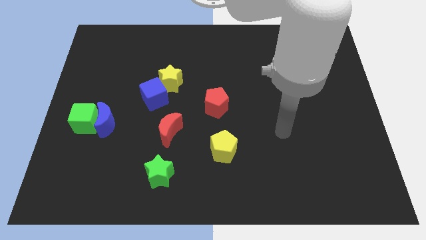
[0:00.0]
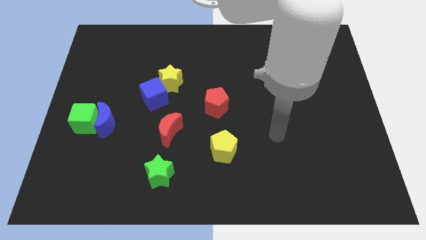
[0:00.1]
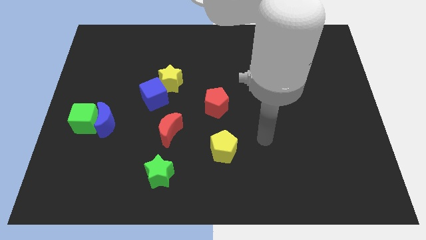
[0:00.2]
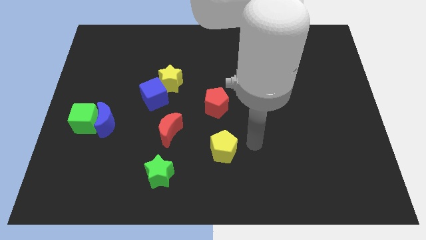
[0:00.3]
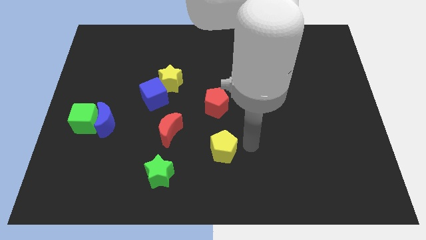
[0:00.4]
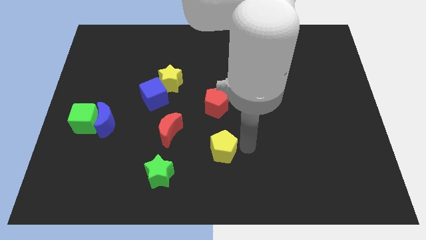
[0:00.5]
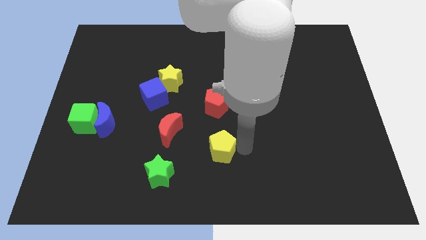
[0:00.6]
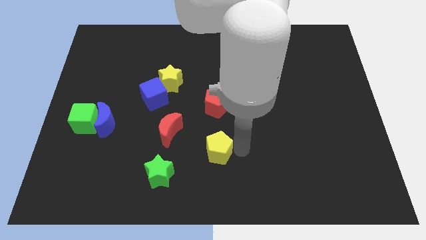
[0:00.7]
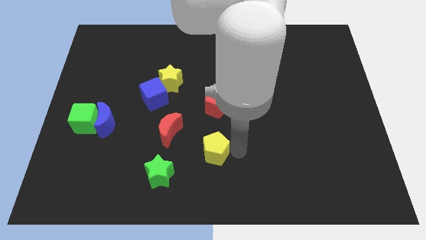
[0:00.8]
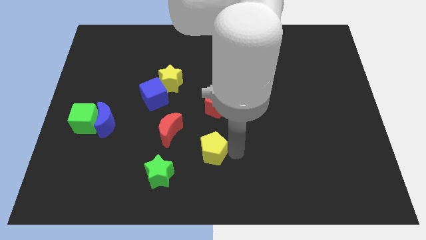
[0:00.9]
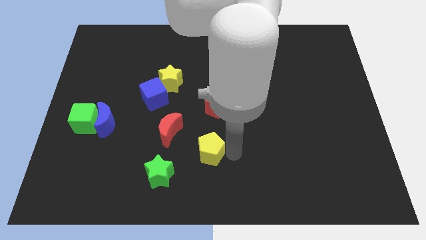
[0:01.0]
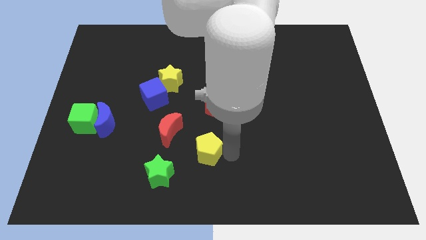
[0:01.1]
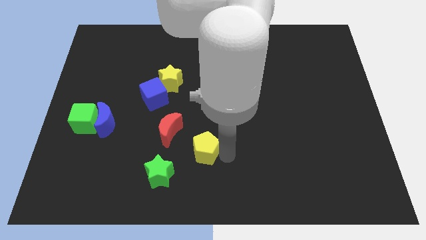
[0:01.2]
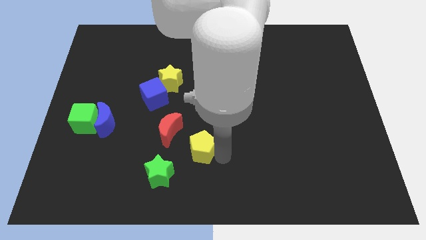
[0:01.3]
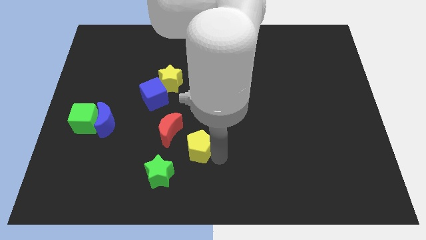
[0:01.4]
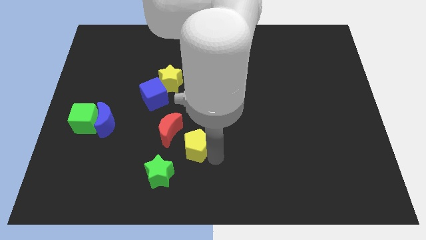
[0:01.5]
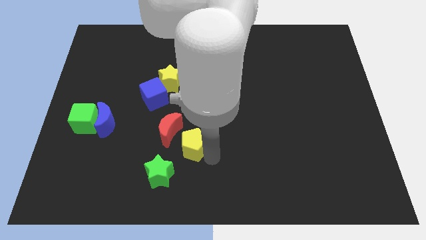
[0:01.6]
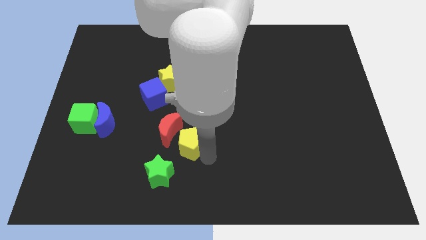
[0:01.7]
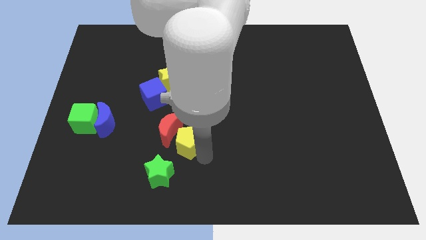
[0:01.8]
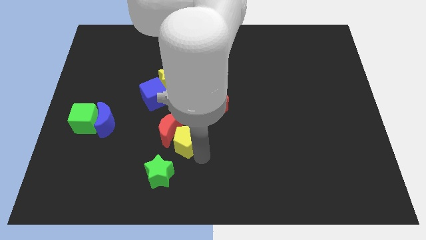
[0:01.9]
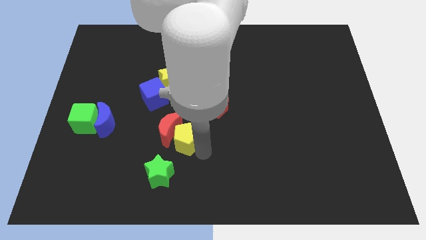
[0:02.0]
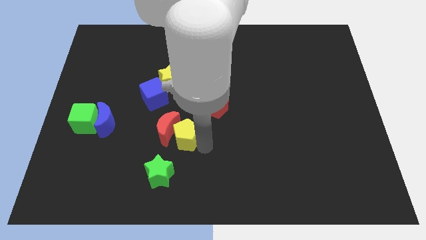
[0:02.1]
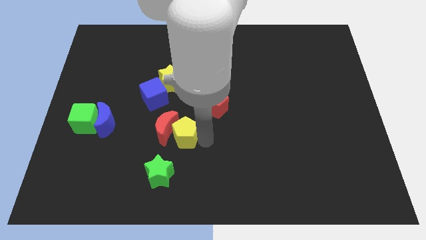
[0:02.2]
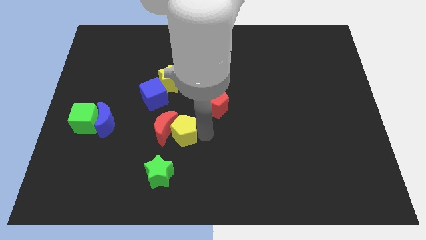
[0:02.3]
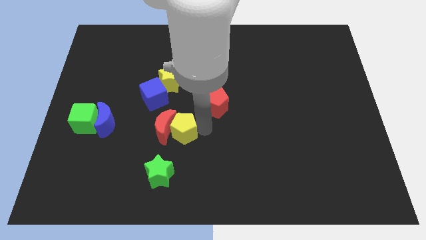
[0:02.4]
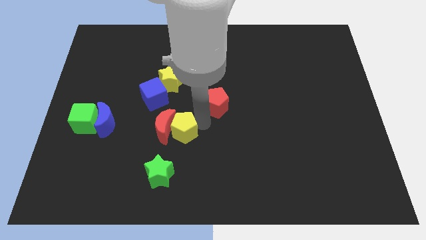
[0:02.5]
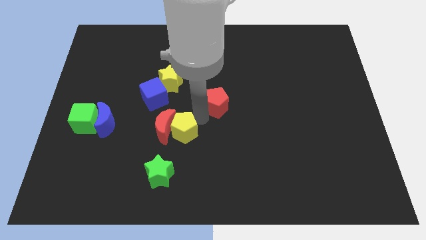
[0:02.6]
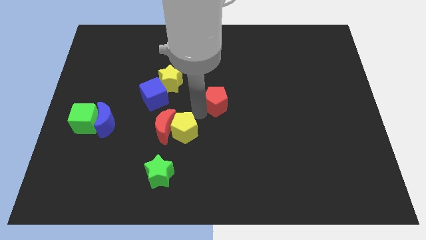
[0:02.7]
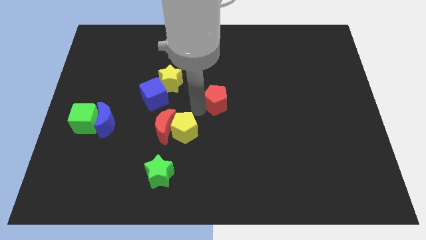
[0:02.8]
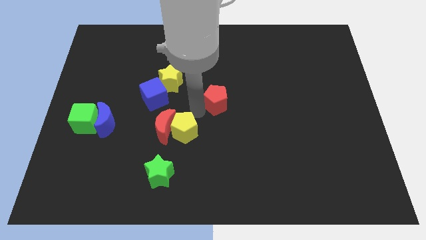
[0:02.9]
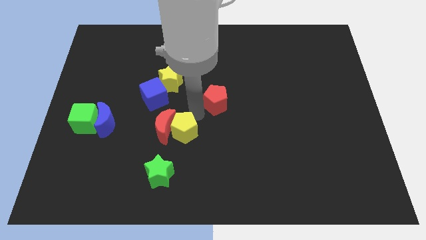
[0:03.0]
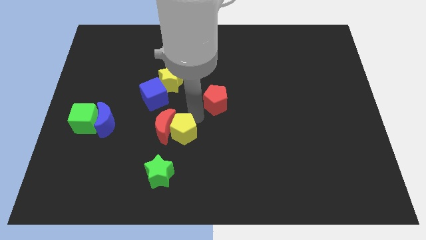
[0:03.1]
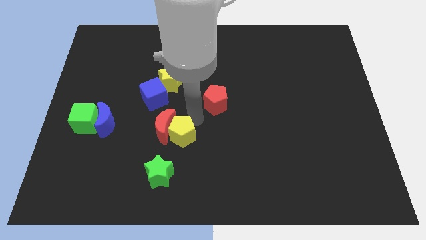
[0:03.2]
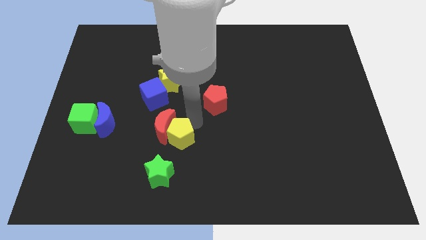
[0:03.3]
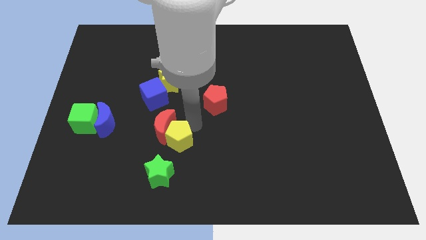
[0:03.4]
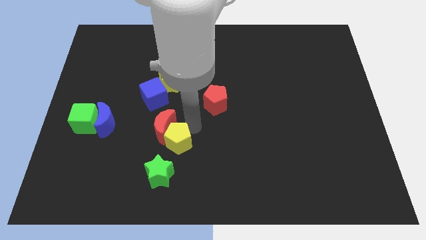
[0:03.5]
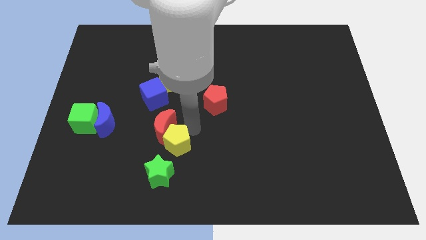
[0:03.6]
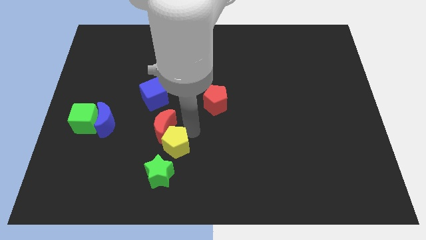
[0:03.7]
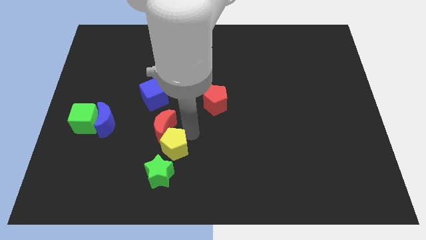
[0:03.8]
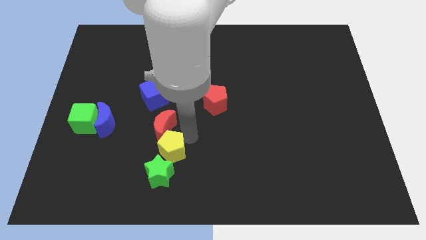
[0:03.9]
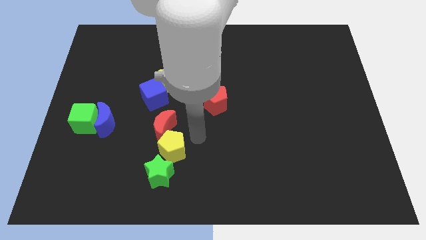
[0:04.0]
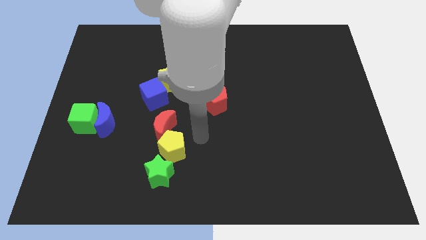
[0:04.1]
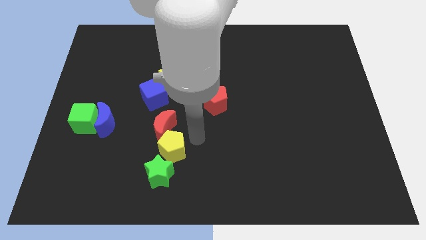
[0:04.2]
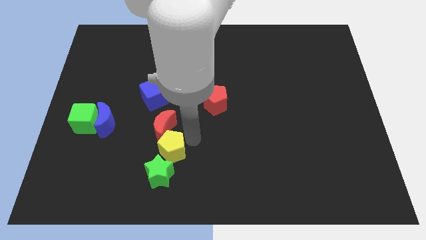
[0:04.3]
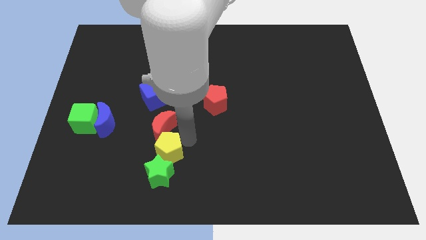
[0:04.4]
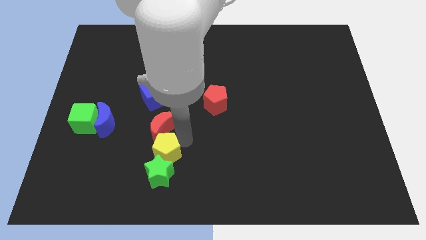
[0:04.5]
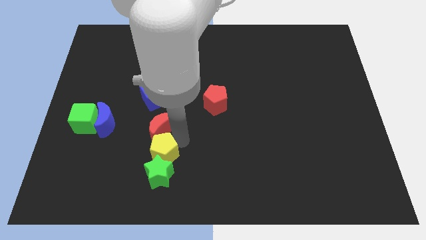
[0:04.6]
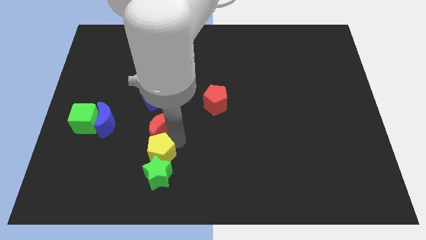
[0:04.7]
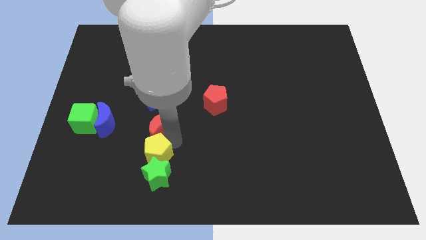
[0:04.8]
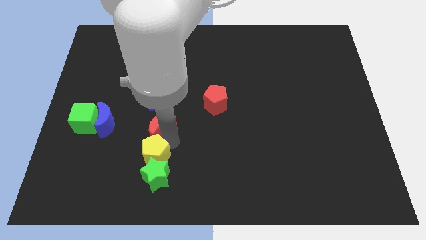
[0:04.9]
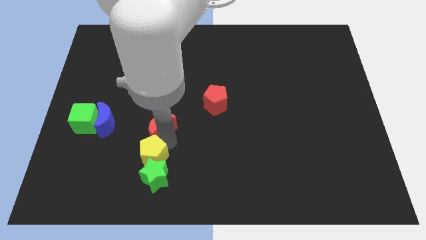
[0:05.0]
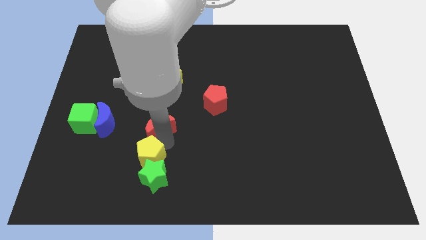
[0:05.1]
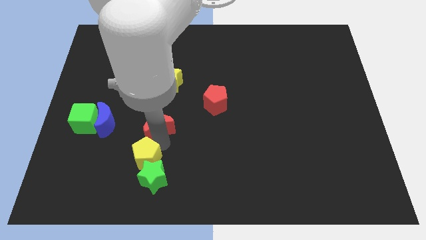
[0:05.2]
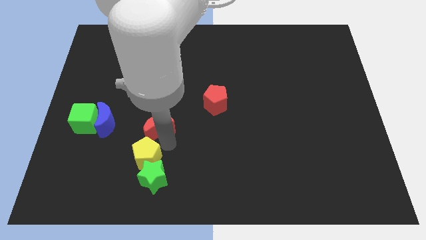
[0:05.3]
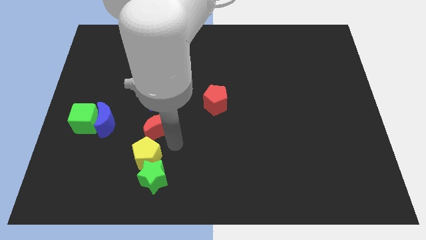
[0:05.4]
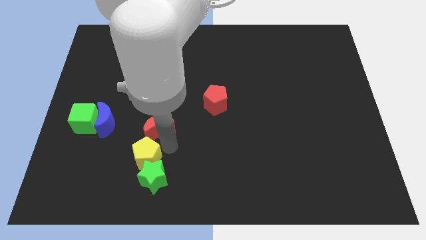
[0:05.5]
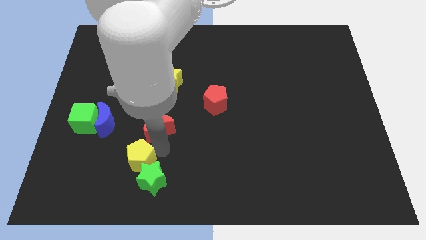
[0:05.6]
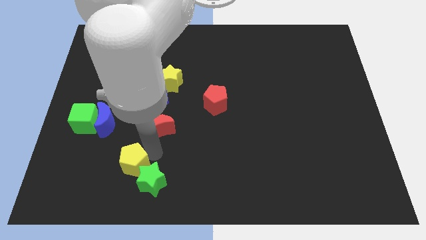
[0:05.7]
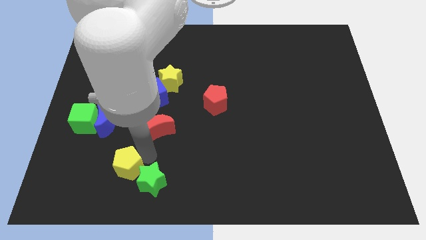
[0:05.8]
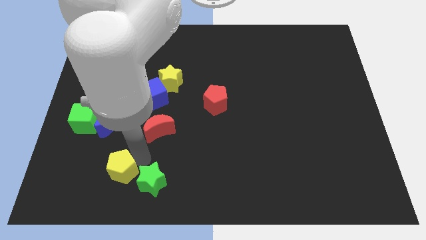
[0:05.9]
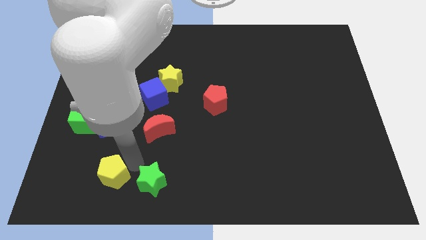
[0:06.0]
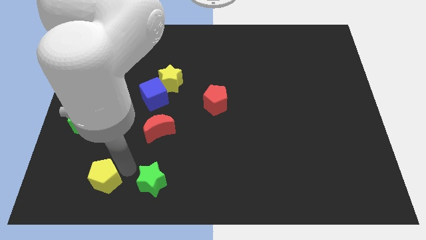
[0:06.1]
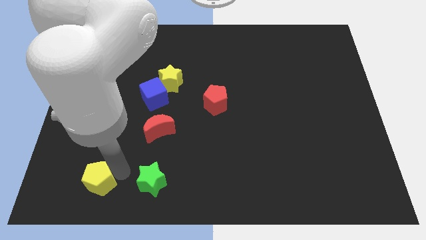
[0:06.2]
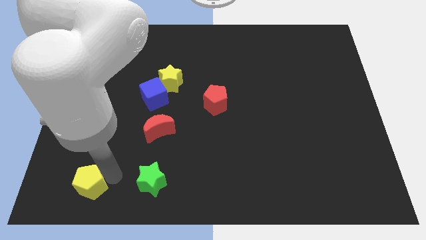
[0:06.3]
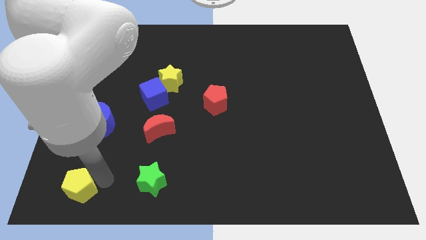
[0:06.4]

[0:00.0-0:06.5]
move the yellow pentagon to the lower left corner

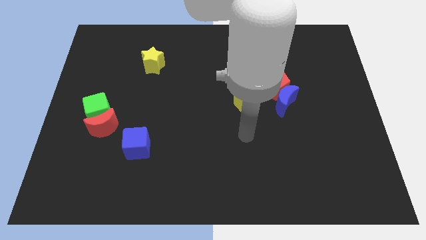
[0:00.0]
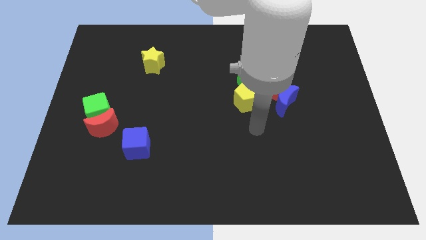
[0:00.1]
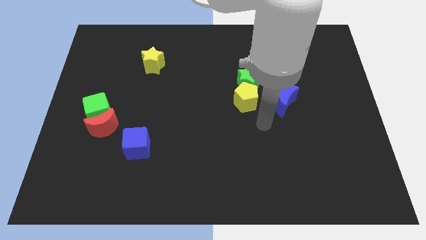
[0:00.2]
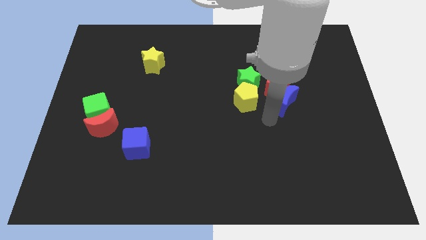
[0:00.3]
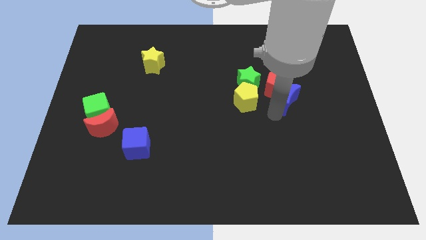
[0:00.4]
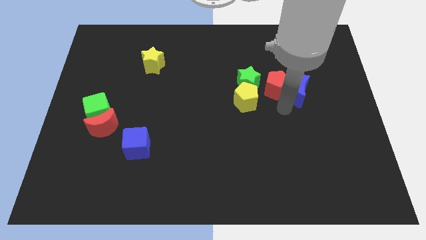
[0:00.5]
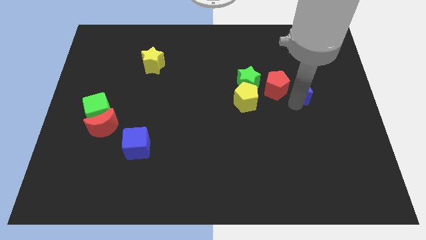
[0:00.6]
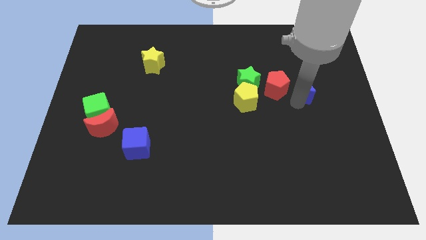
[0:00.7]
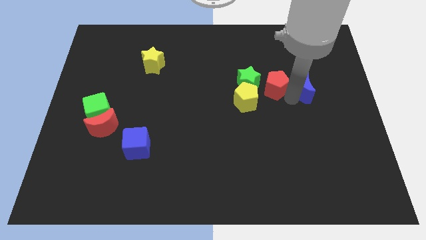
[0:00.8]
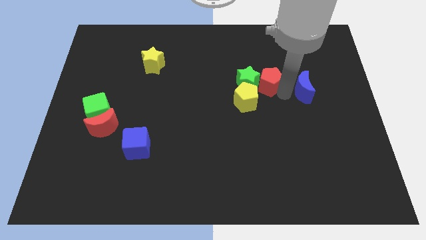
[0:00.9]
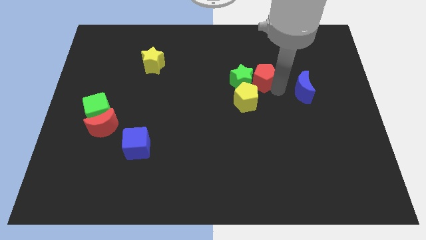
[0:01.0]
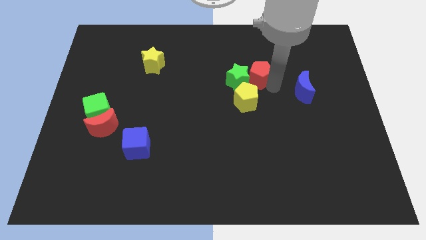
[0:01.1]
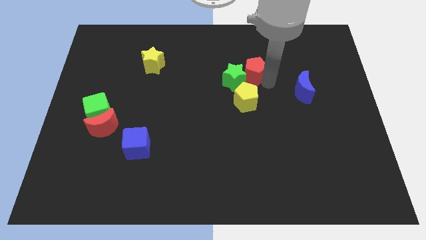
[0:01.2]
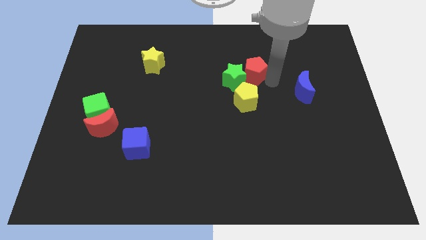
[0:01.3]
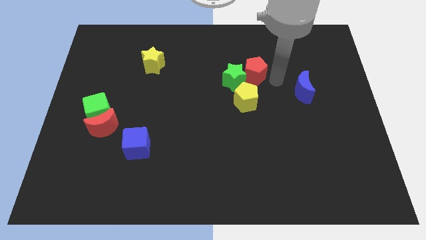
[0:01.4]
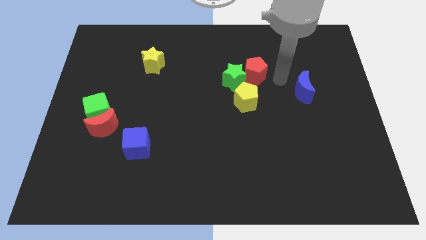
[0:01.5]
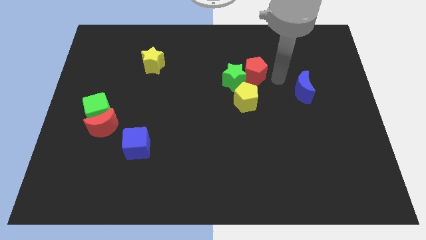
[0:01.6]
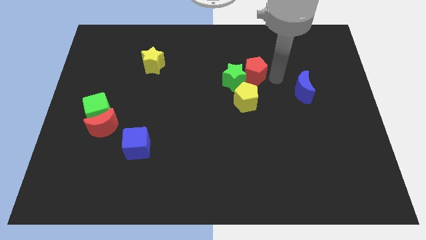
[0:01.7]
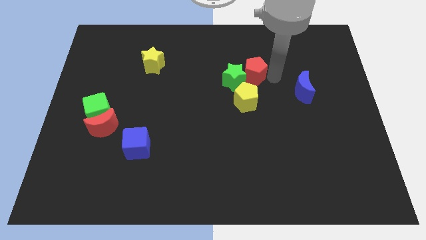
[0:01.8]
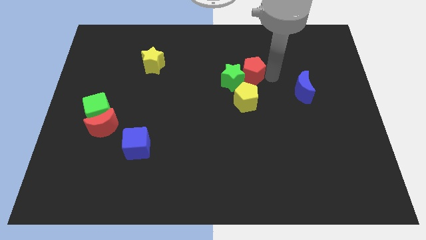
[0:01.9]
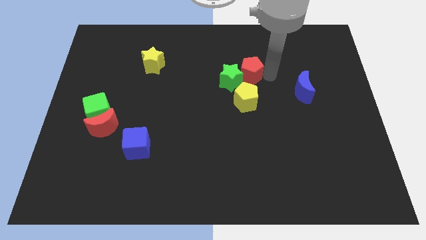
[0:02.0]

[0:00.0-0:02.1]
slide the red pentagon to the center
